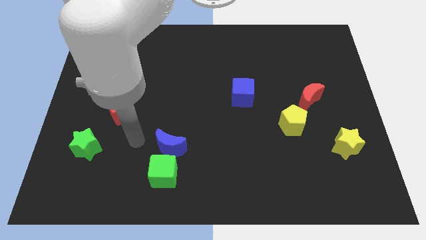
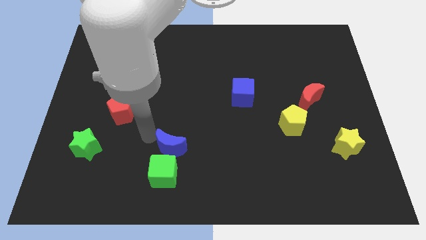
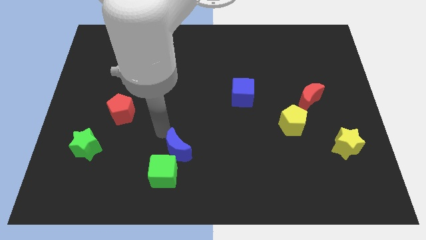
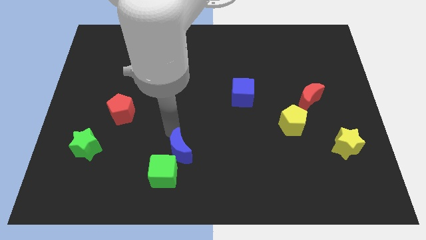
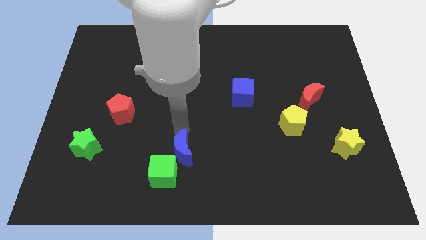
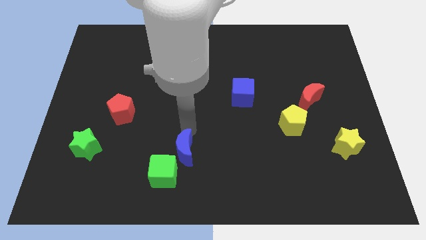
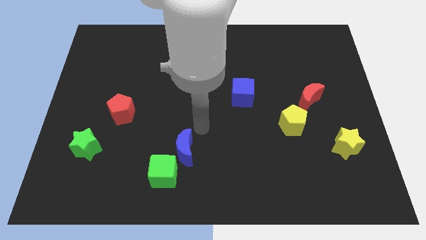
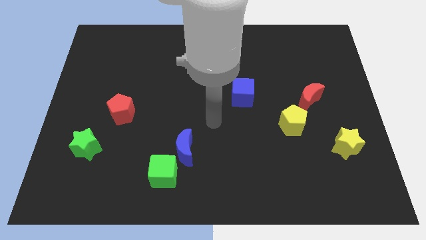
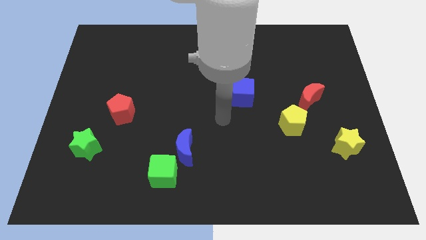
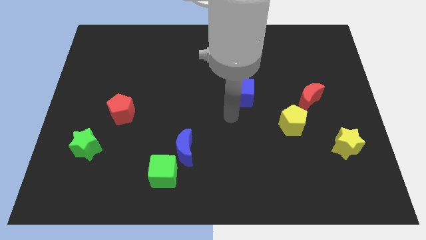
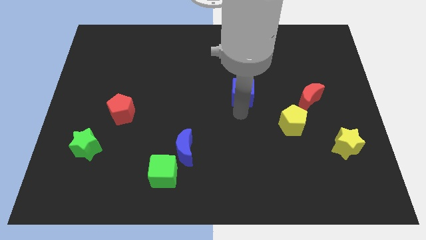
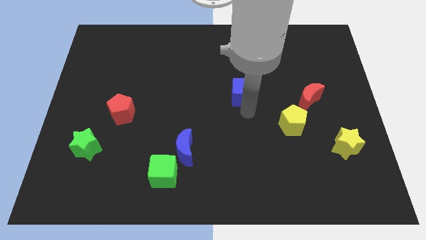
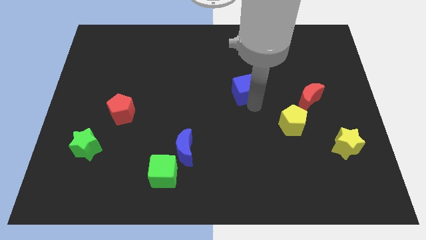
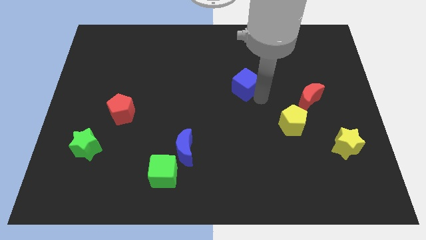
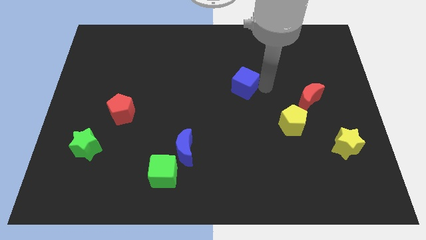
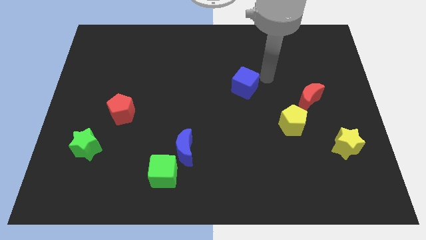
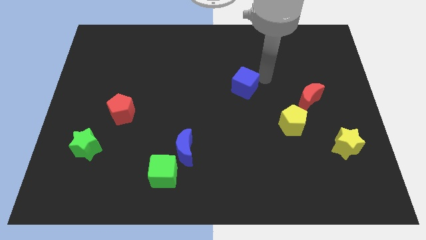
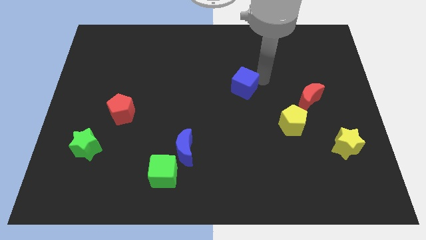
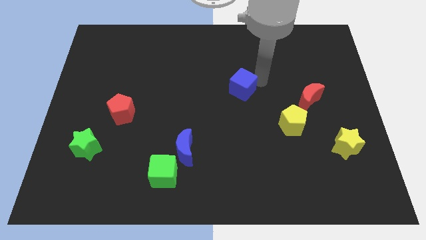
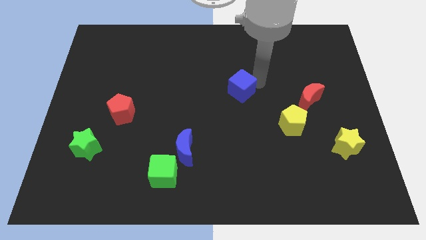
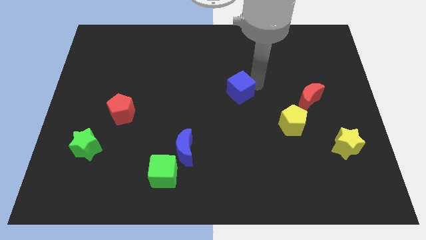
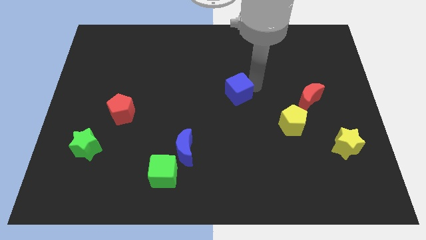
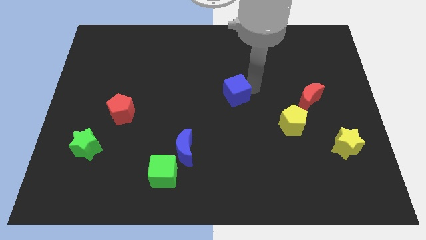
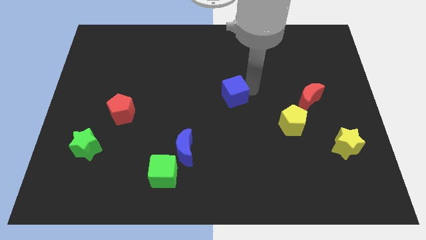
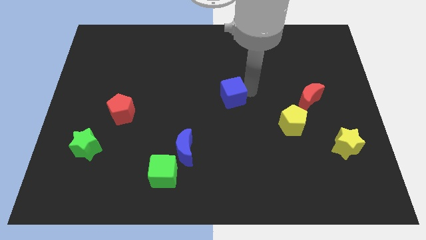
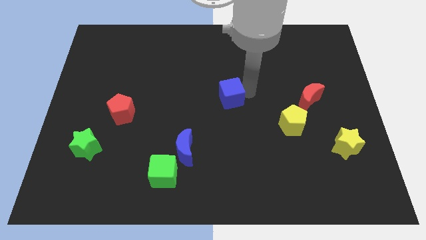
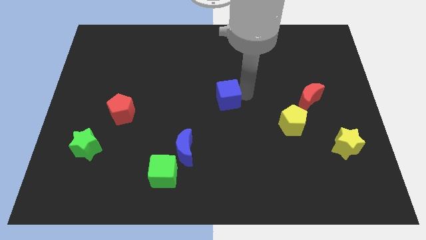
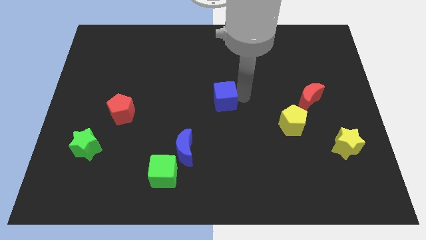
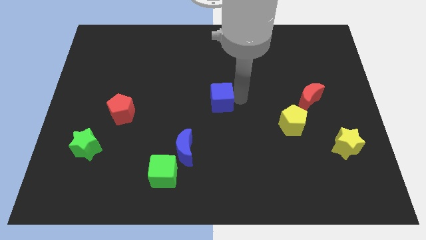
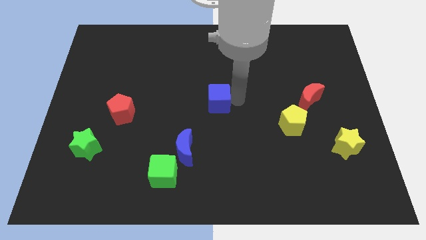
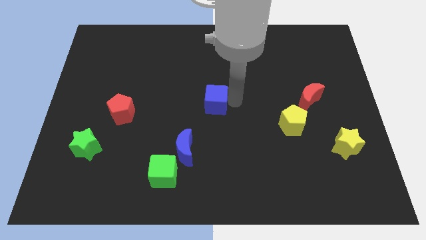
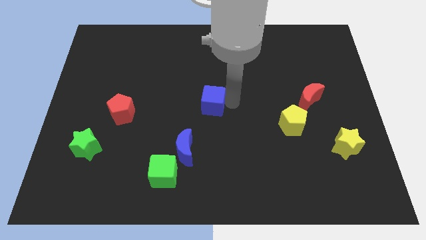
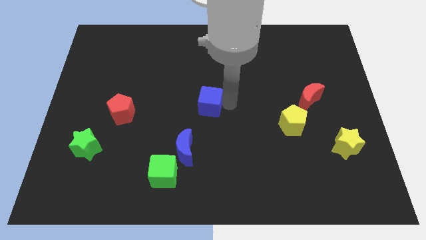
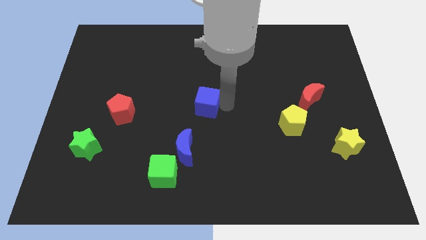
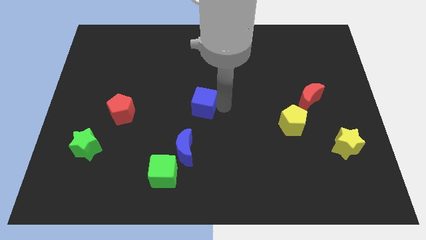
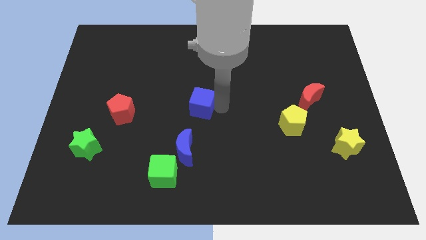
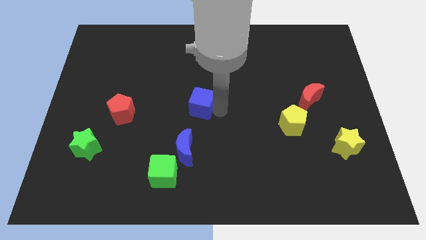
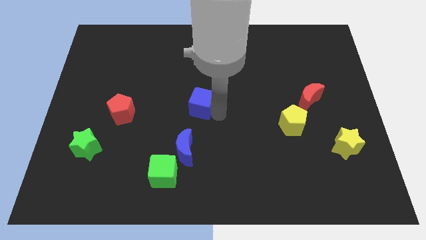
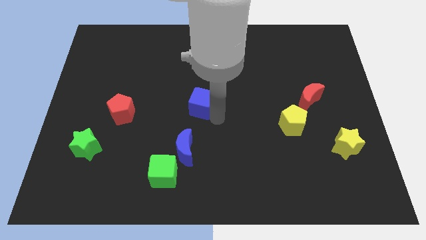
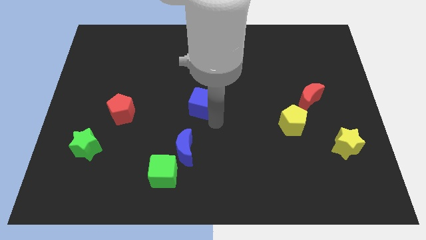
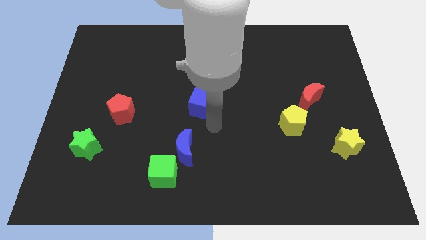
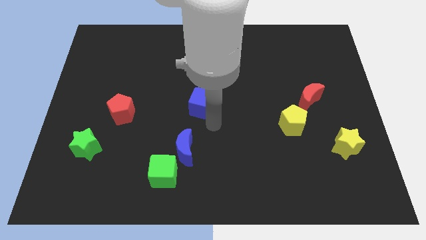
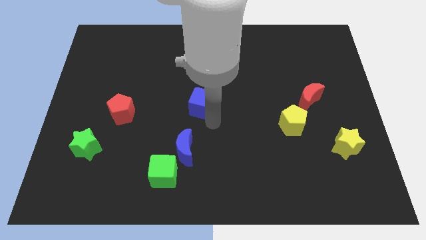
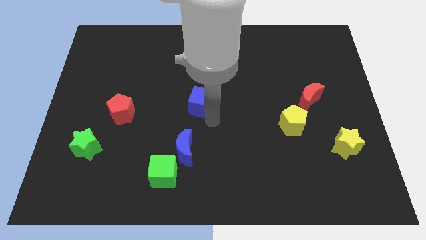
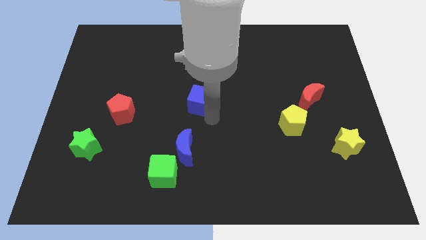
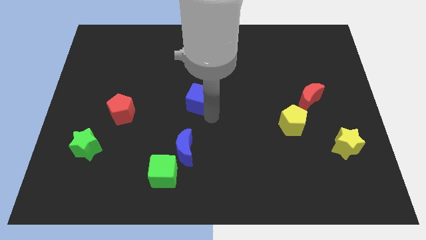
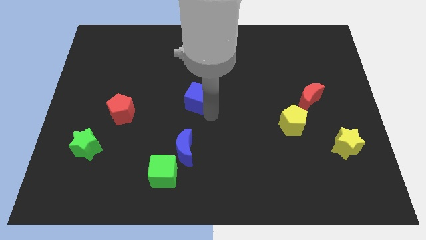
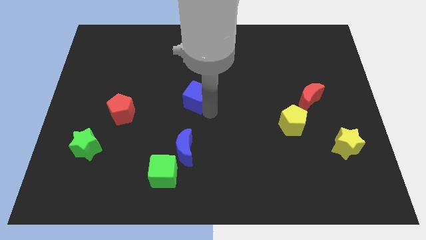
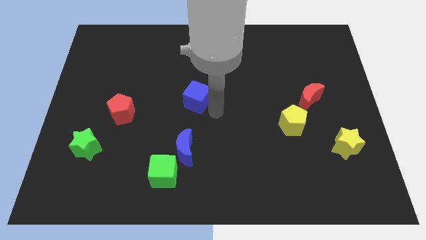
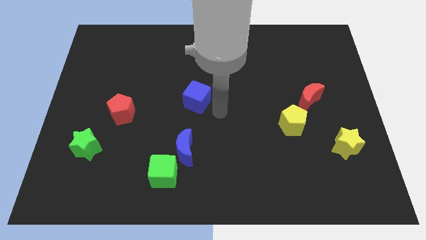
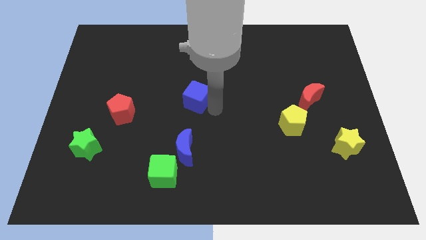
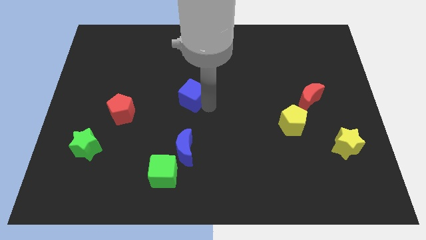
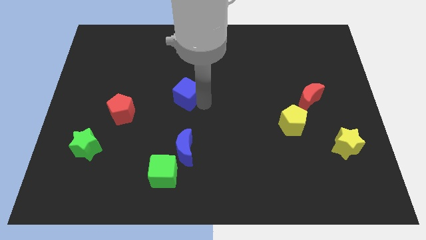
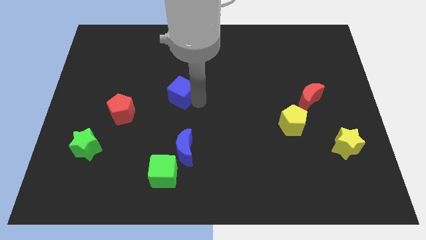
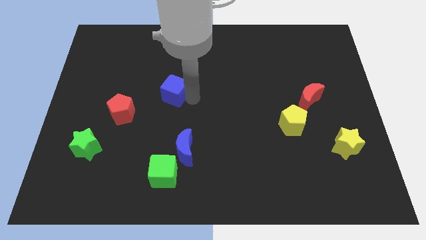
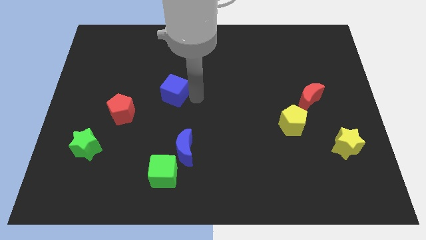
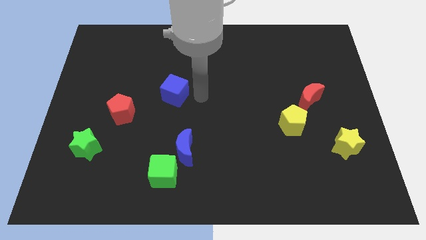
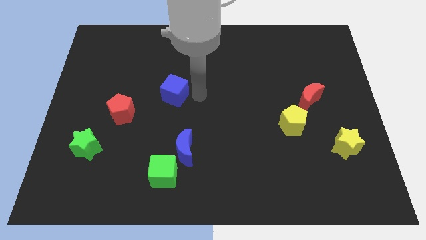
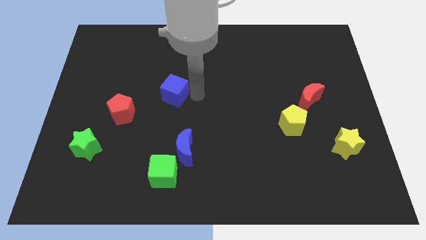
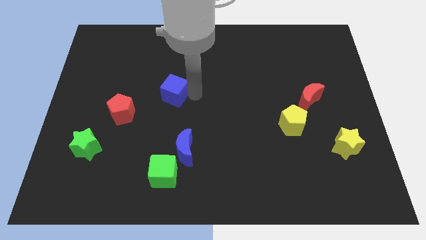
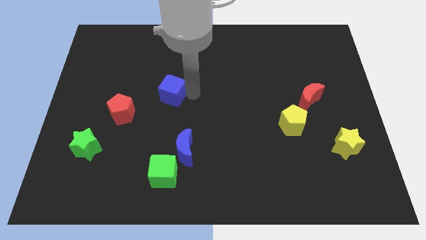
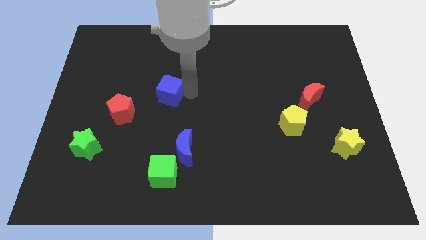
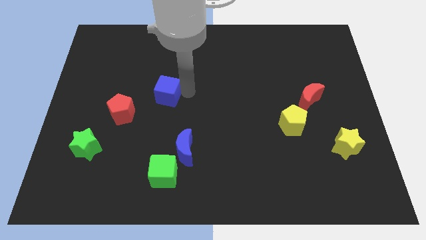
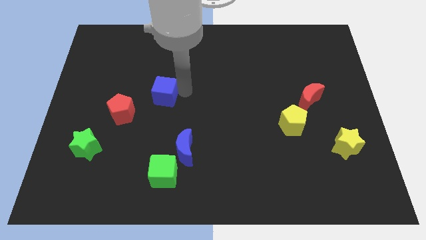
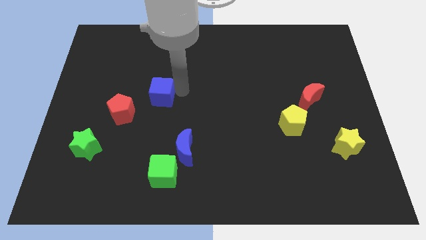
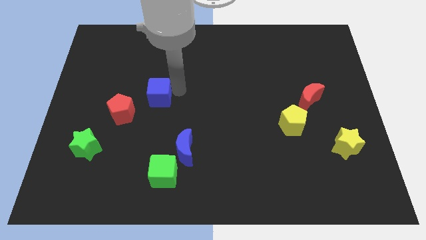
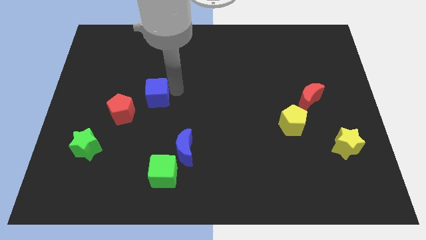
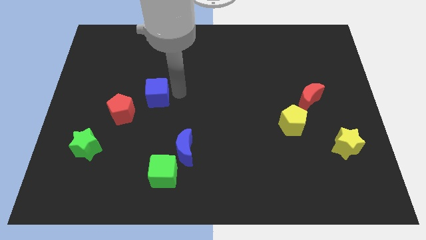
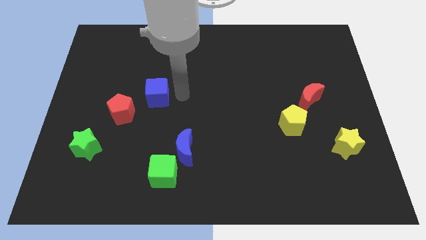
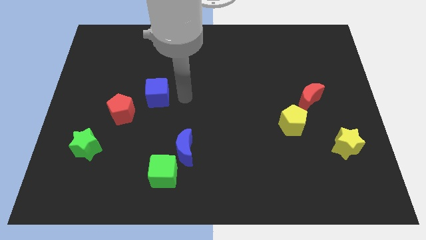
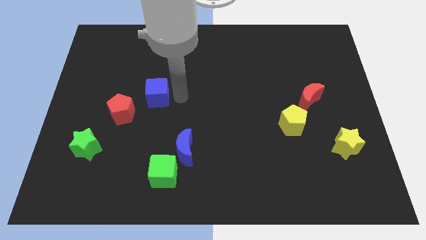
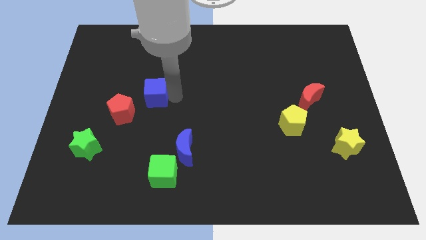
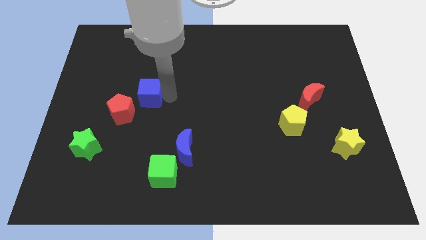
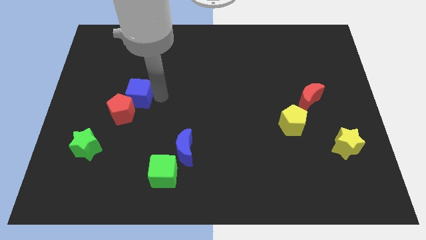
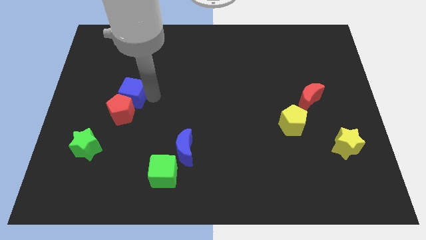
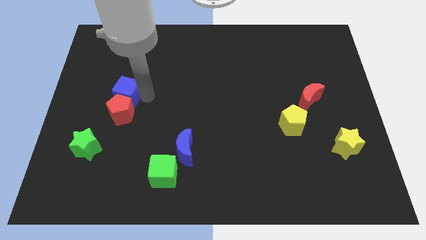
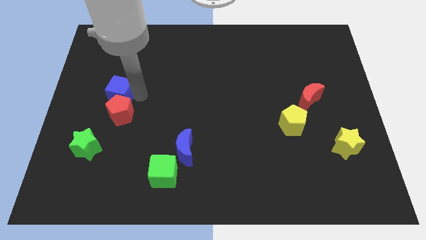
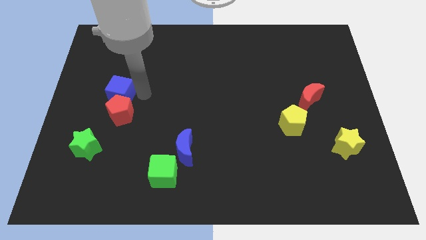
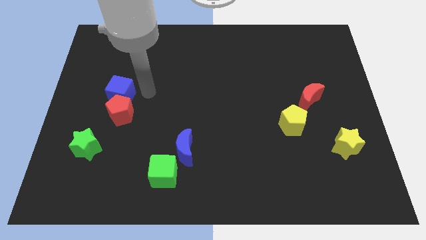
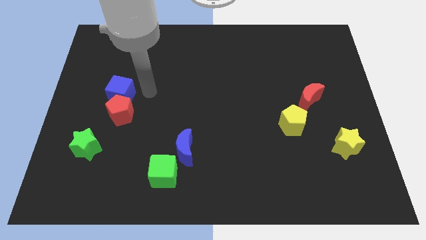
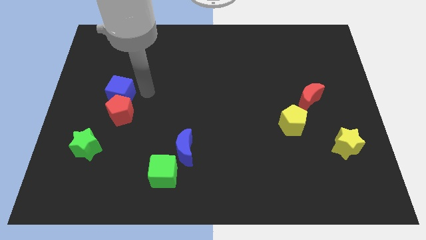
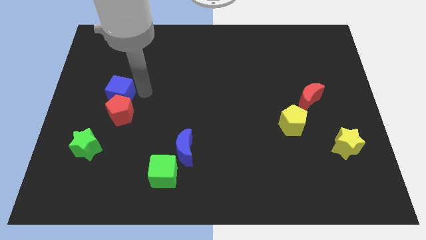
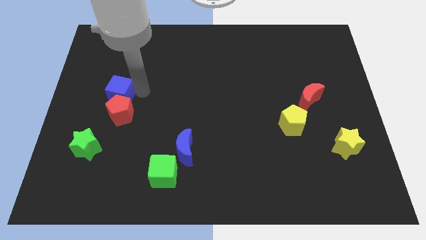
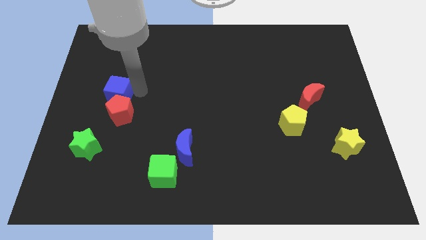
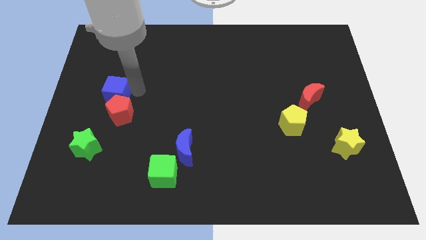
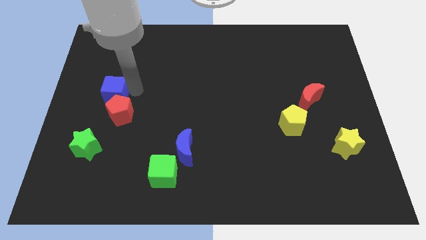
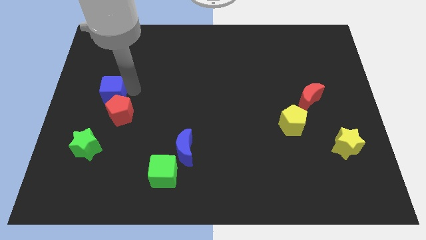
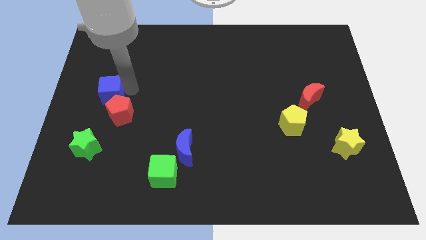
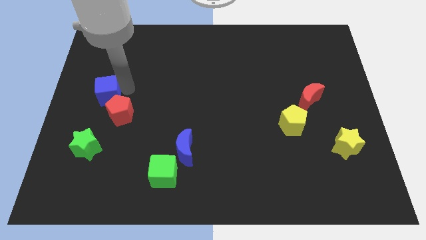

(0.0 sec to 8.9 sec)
slide the blue cube to the left side of the board
